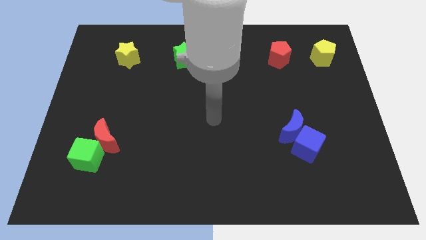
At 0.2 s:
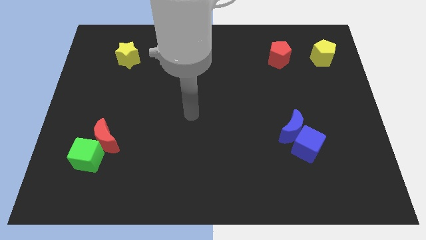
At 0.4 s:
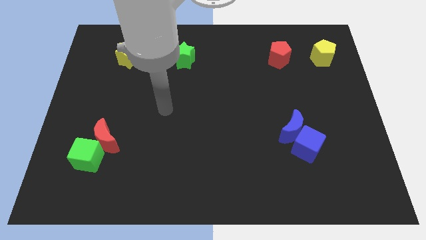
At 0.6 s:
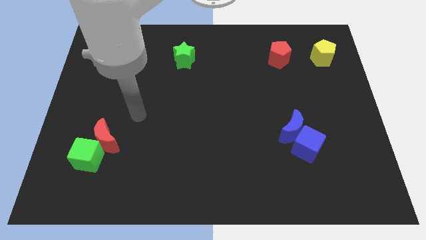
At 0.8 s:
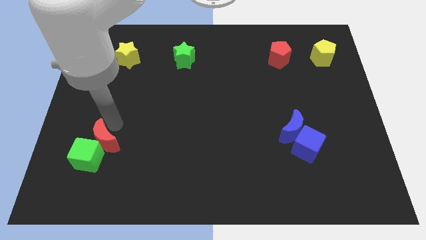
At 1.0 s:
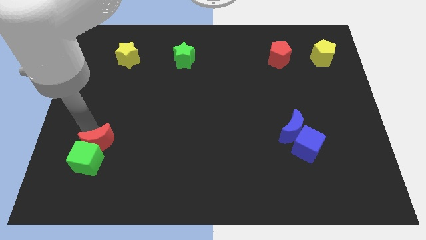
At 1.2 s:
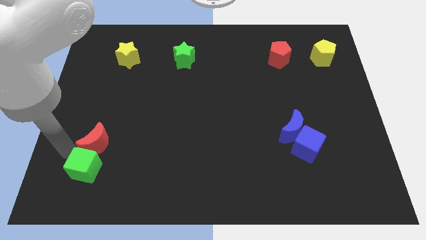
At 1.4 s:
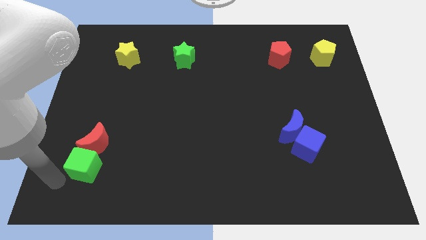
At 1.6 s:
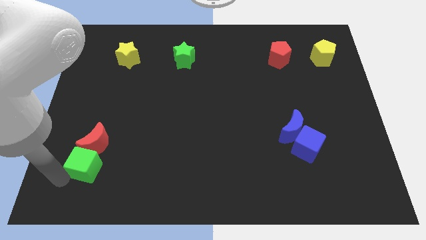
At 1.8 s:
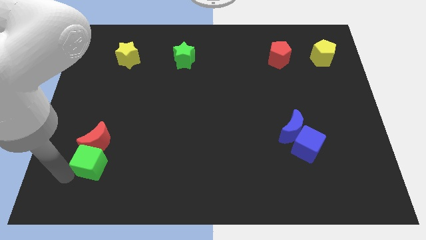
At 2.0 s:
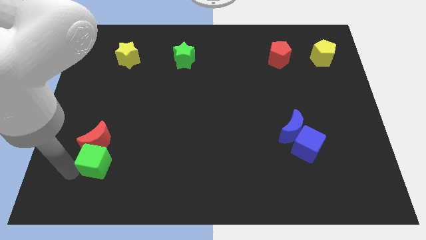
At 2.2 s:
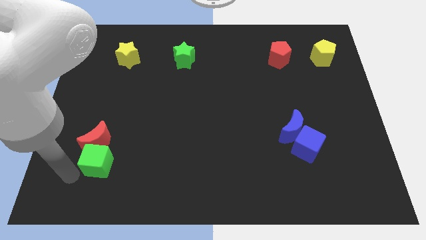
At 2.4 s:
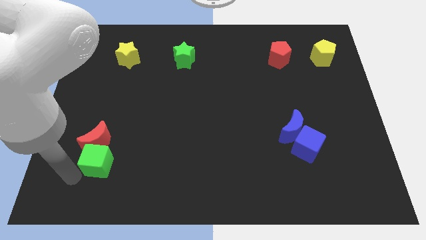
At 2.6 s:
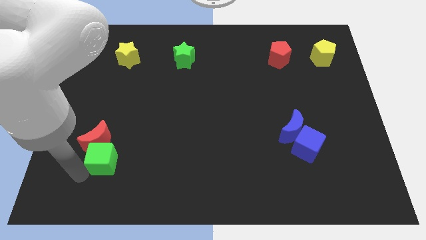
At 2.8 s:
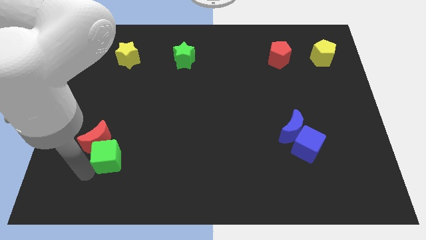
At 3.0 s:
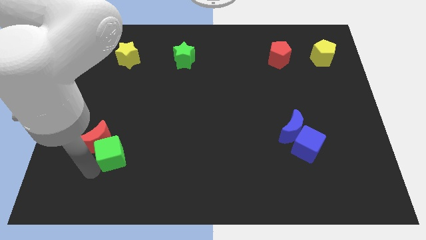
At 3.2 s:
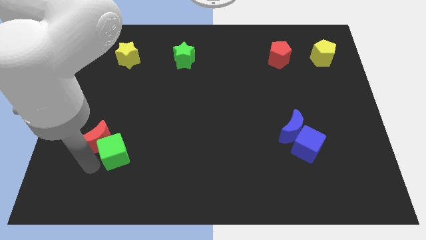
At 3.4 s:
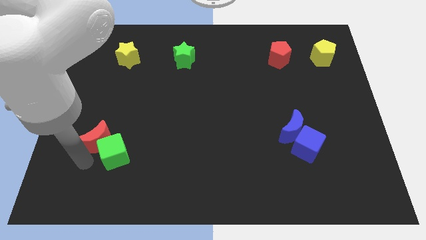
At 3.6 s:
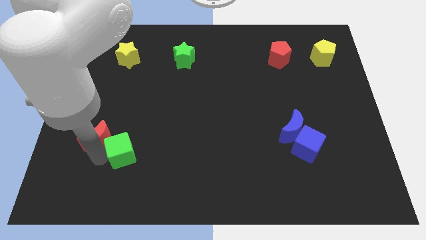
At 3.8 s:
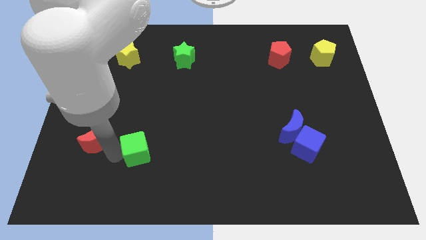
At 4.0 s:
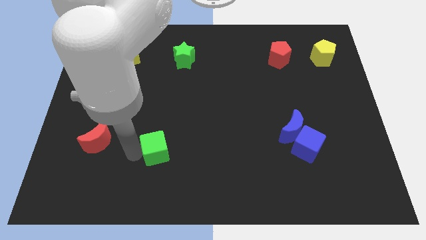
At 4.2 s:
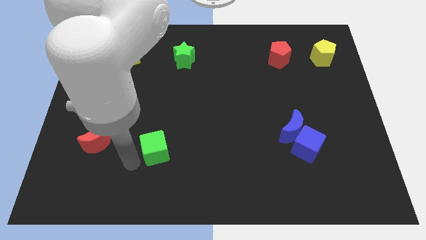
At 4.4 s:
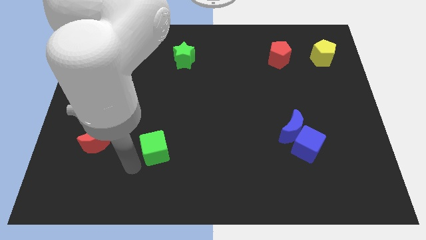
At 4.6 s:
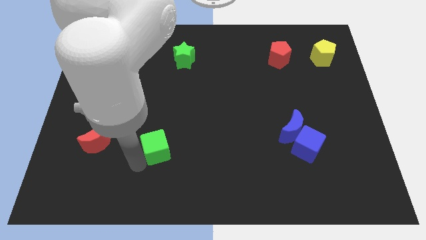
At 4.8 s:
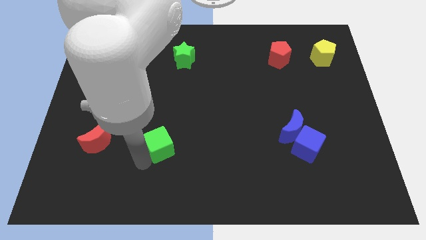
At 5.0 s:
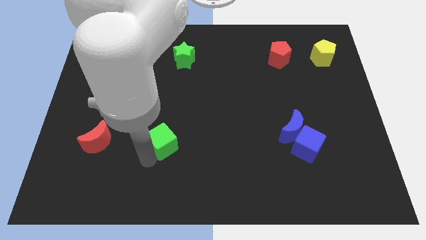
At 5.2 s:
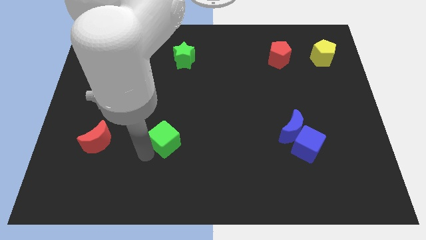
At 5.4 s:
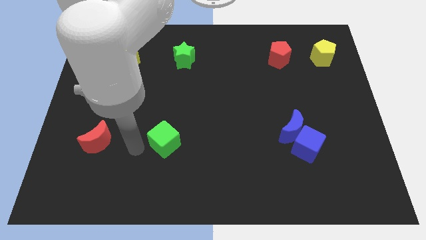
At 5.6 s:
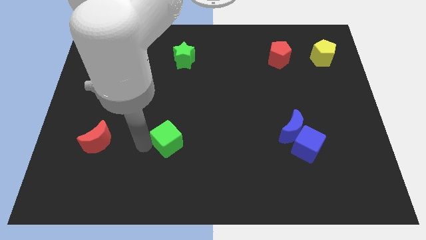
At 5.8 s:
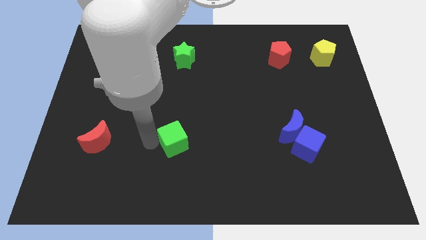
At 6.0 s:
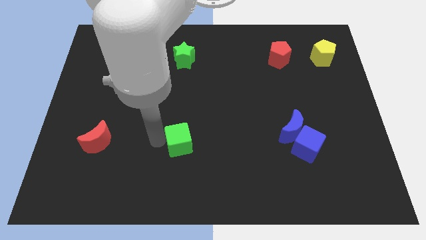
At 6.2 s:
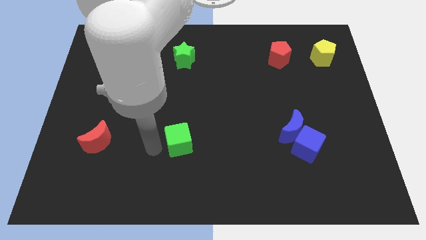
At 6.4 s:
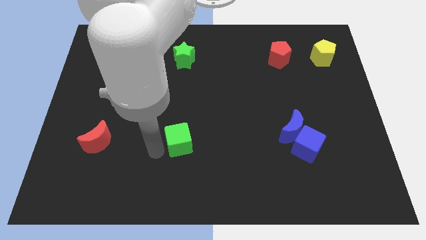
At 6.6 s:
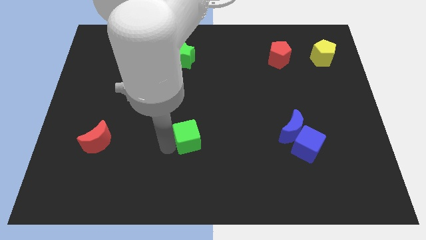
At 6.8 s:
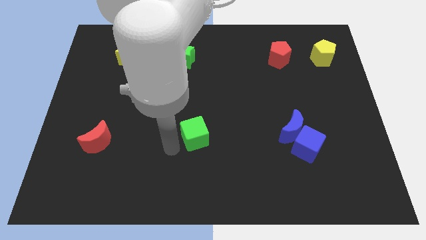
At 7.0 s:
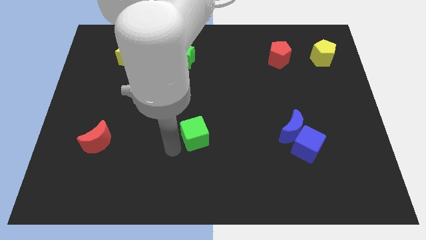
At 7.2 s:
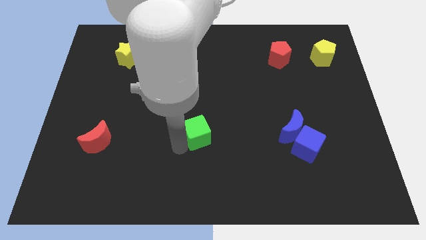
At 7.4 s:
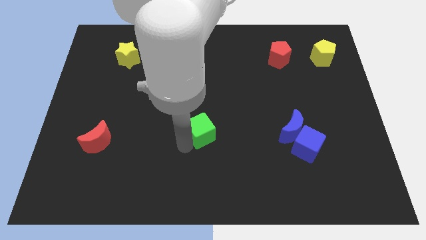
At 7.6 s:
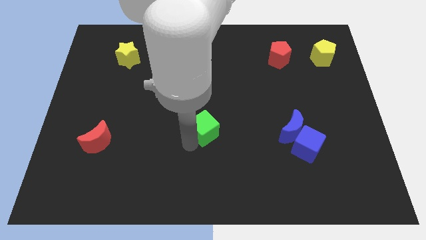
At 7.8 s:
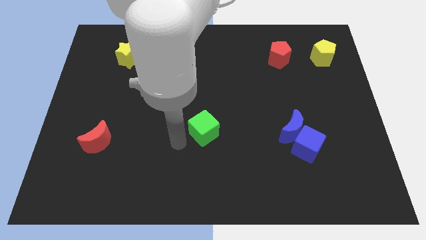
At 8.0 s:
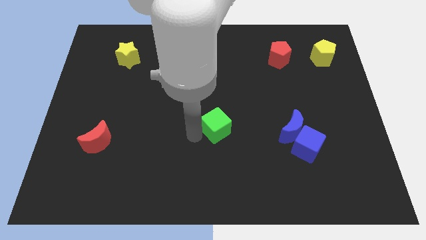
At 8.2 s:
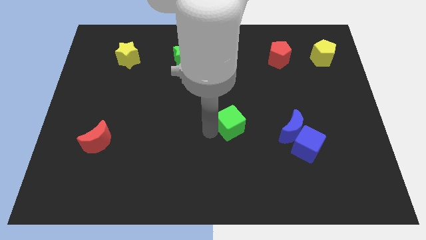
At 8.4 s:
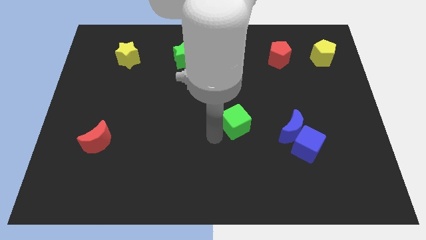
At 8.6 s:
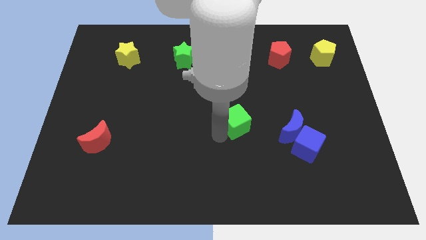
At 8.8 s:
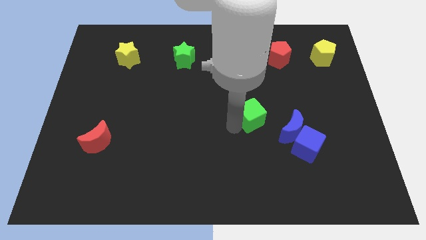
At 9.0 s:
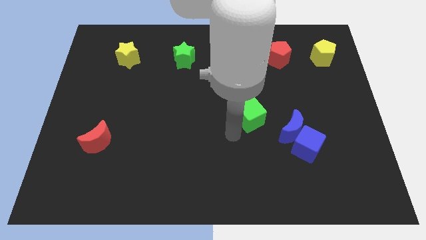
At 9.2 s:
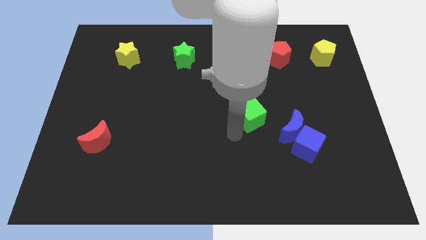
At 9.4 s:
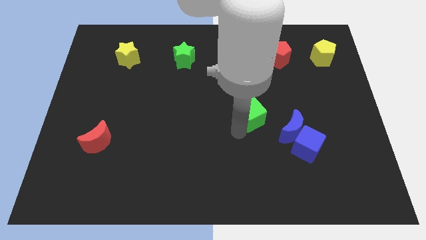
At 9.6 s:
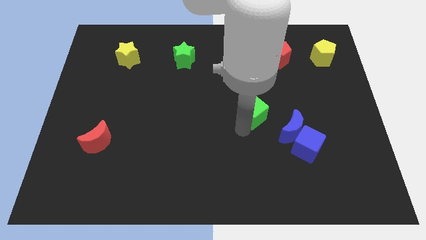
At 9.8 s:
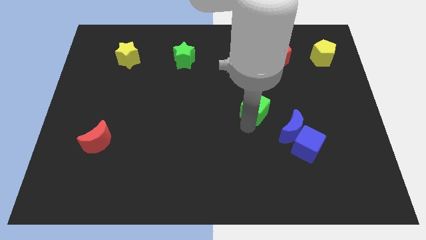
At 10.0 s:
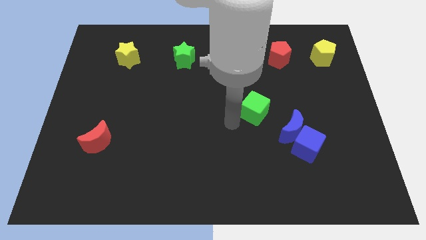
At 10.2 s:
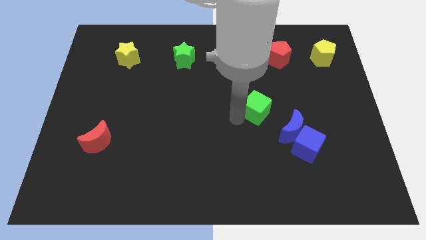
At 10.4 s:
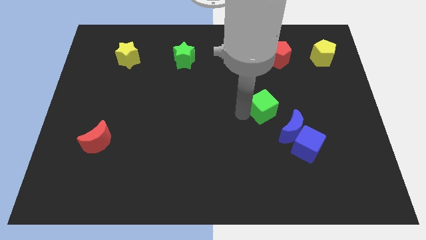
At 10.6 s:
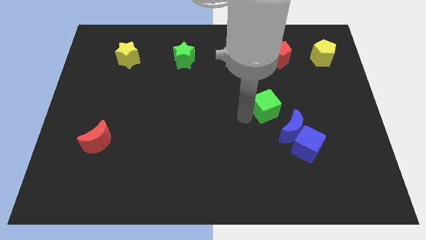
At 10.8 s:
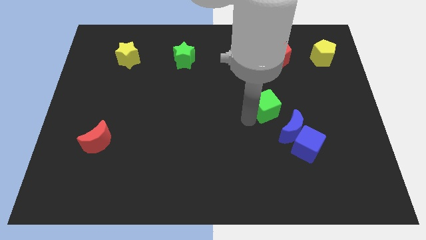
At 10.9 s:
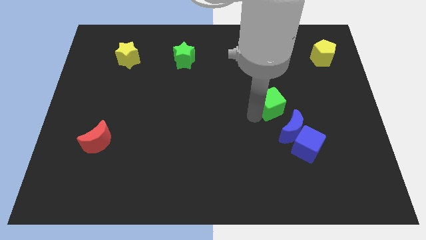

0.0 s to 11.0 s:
push the green cube to the top side of the blue moon

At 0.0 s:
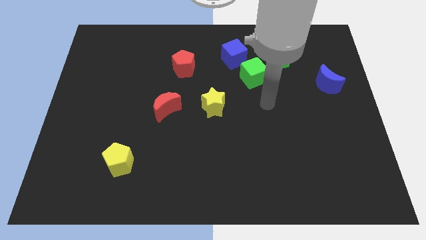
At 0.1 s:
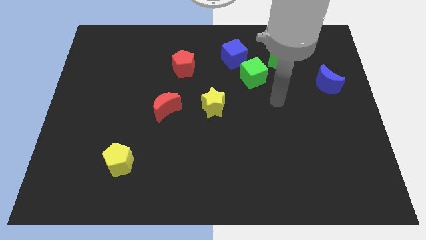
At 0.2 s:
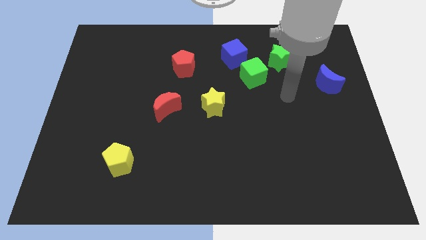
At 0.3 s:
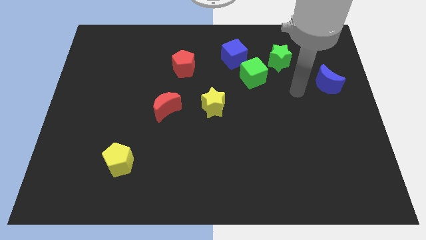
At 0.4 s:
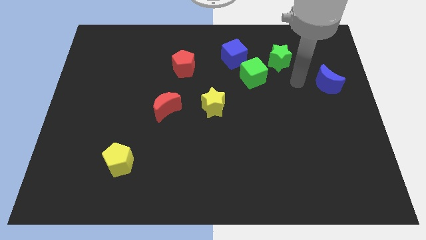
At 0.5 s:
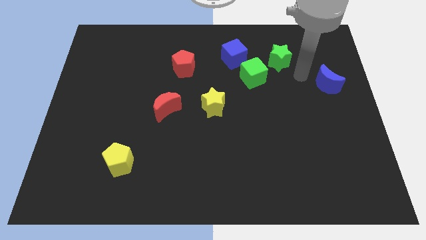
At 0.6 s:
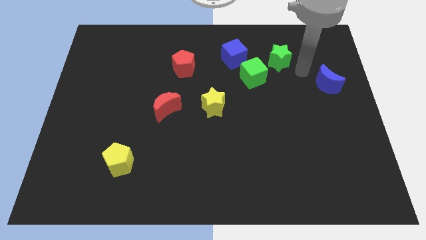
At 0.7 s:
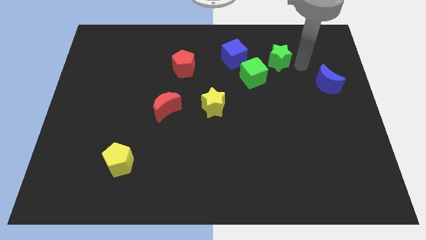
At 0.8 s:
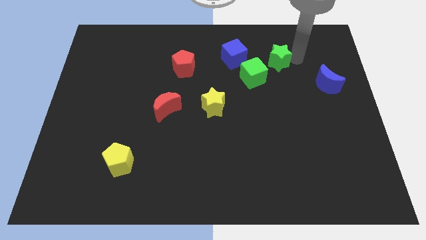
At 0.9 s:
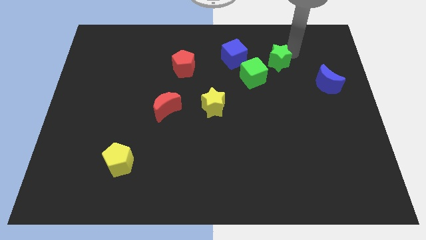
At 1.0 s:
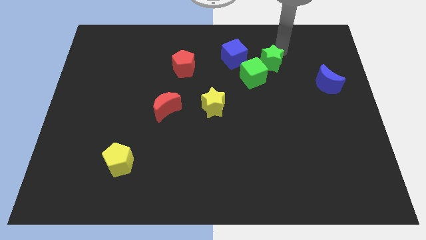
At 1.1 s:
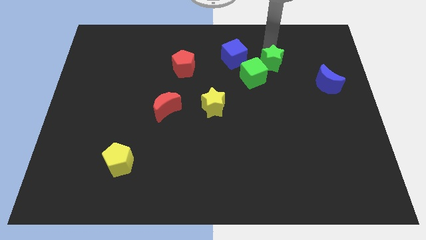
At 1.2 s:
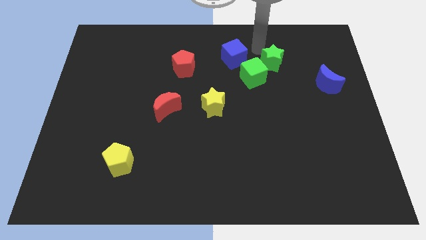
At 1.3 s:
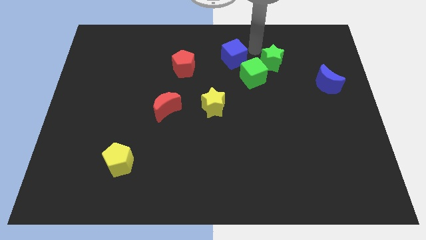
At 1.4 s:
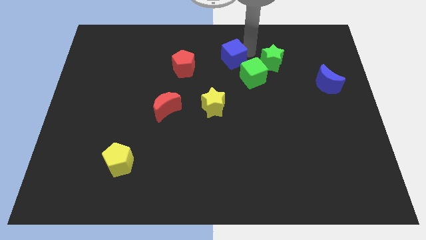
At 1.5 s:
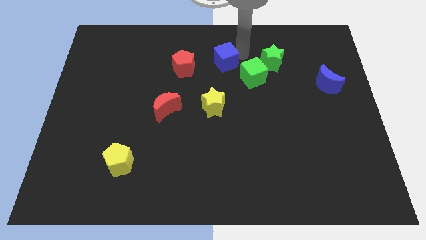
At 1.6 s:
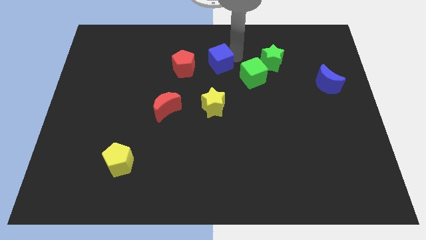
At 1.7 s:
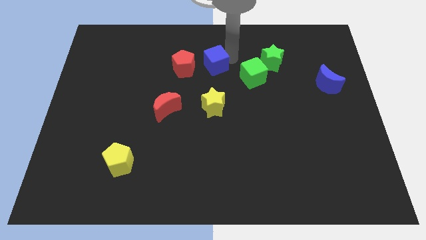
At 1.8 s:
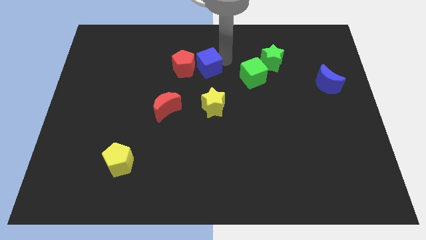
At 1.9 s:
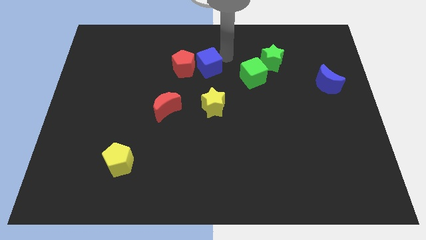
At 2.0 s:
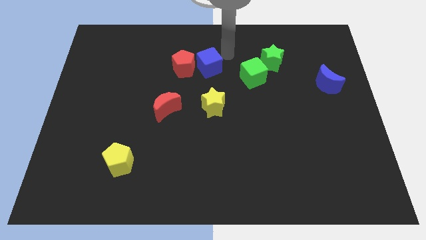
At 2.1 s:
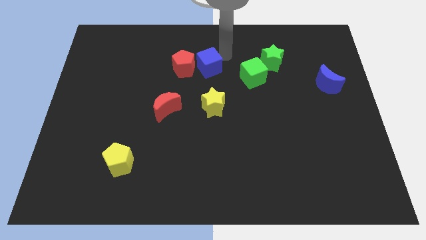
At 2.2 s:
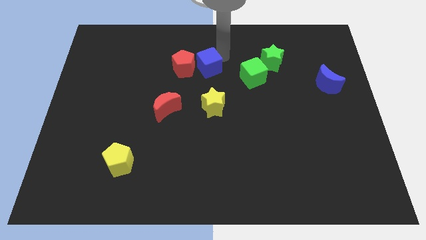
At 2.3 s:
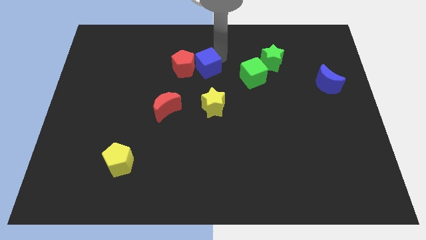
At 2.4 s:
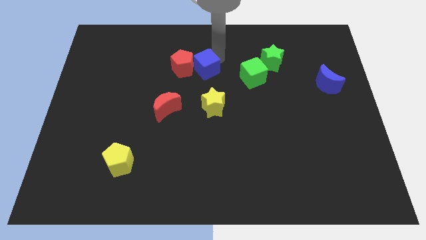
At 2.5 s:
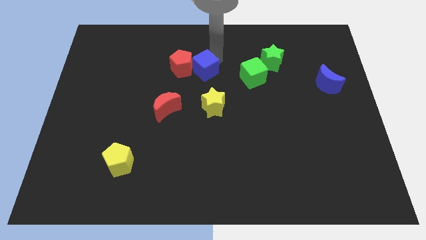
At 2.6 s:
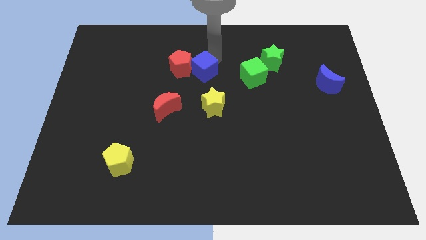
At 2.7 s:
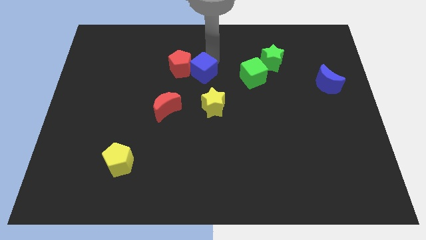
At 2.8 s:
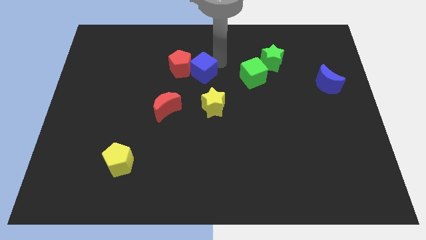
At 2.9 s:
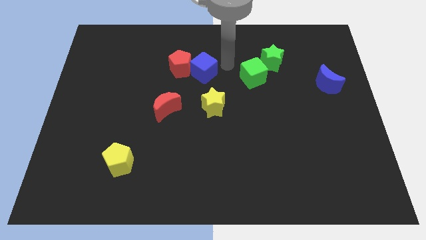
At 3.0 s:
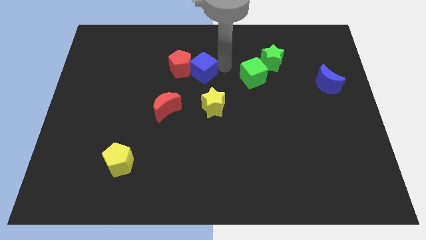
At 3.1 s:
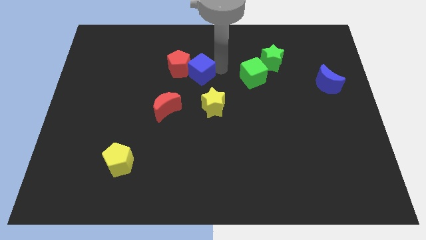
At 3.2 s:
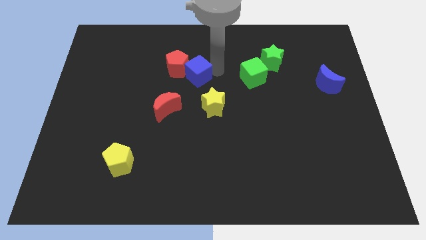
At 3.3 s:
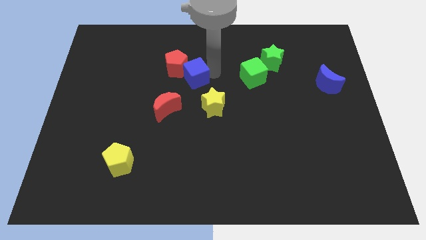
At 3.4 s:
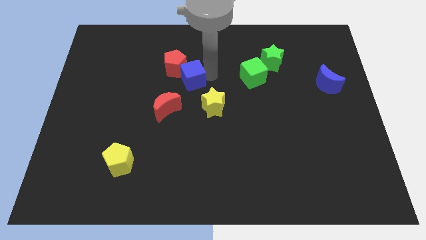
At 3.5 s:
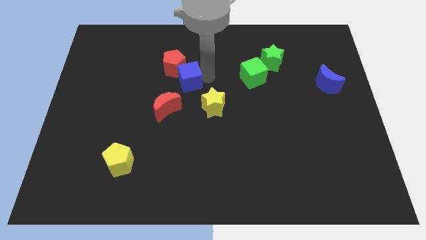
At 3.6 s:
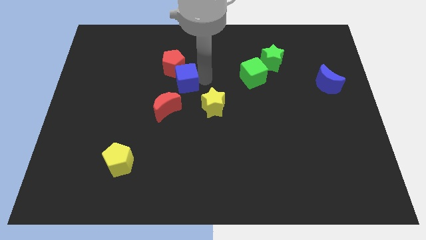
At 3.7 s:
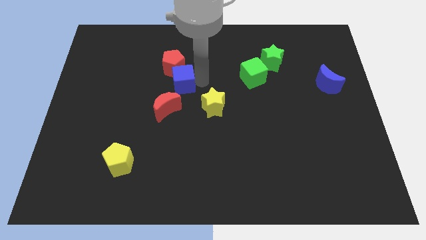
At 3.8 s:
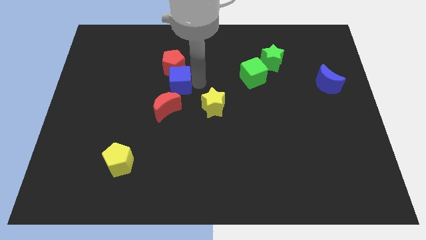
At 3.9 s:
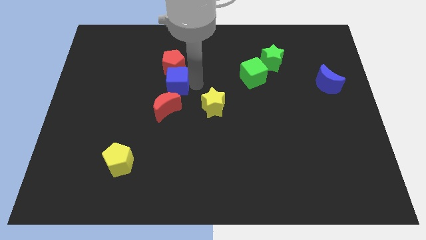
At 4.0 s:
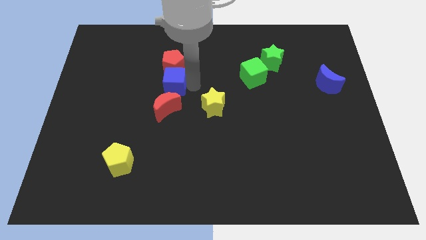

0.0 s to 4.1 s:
push the blue cube to the bottom left side of the red pentagon
